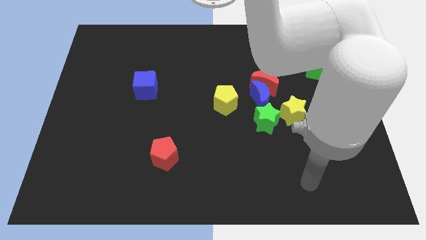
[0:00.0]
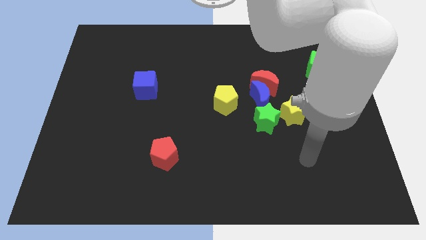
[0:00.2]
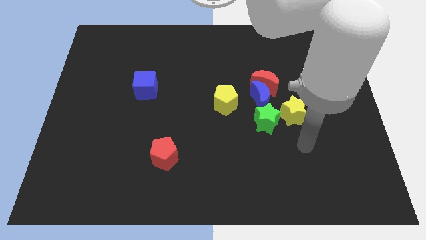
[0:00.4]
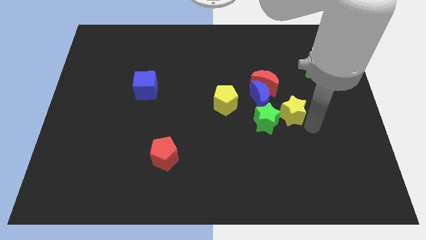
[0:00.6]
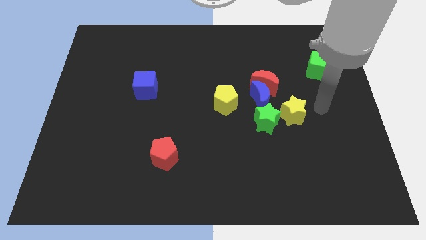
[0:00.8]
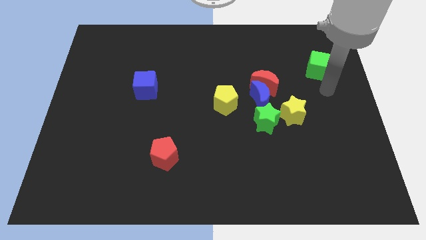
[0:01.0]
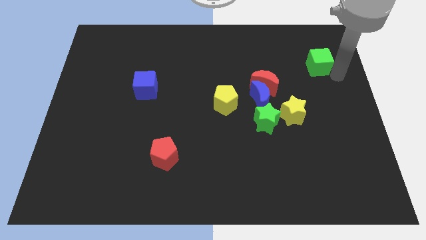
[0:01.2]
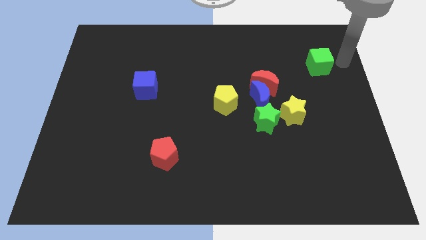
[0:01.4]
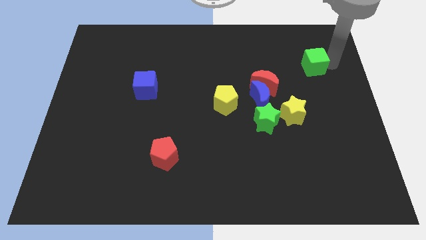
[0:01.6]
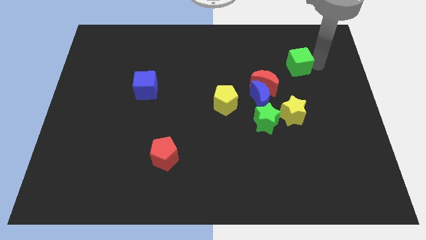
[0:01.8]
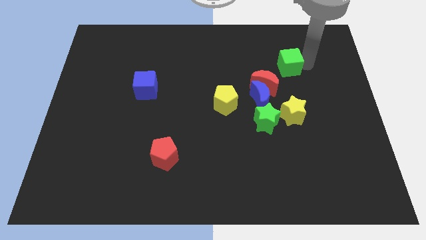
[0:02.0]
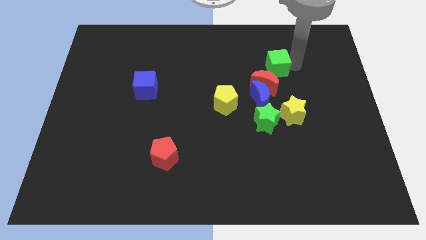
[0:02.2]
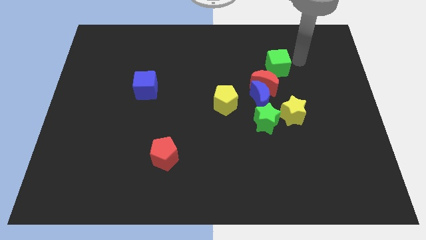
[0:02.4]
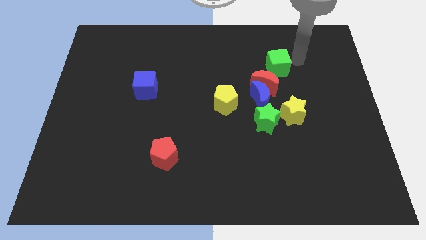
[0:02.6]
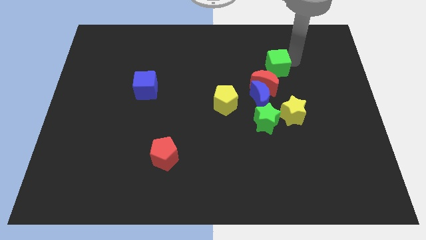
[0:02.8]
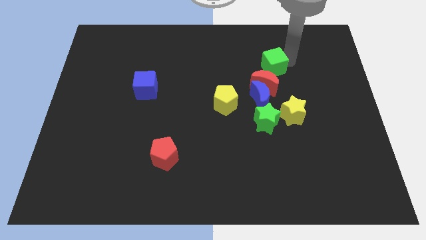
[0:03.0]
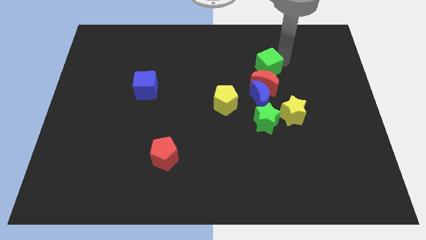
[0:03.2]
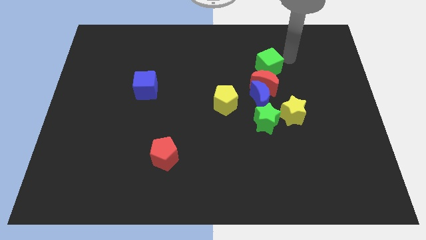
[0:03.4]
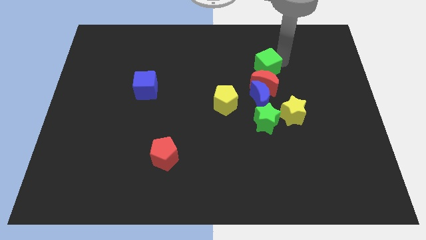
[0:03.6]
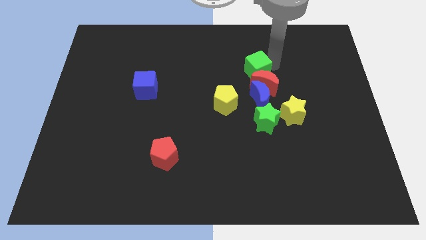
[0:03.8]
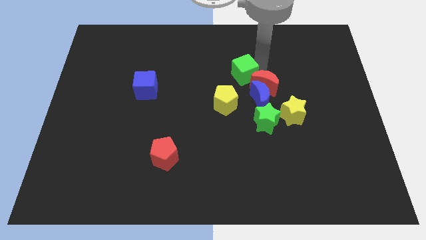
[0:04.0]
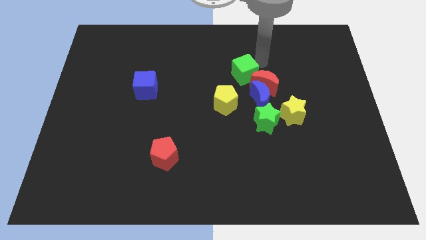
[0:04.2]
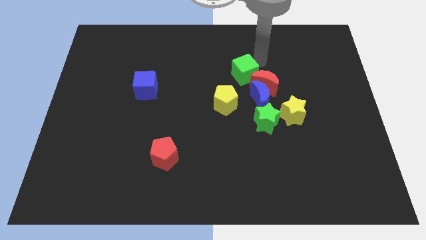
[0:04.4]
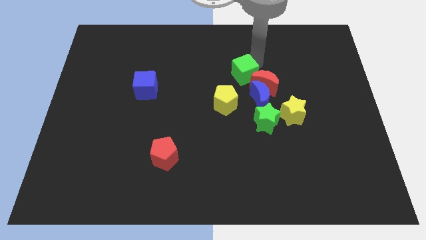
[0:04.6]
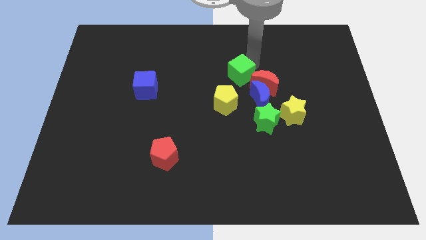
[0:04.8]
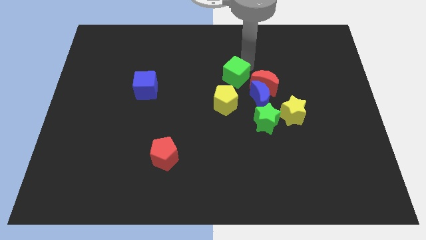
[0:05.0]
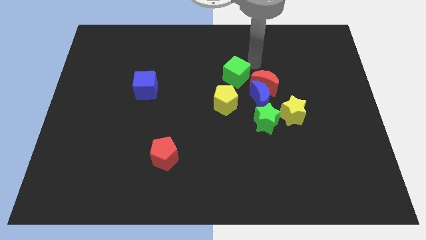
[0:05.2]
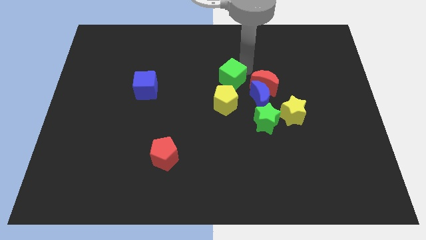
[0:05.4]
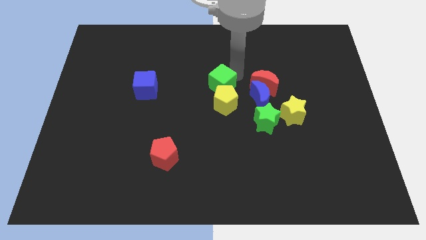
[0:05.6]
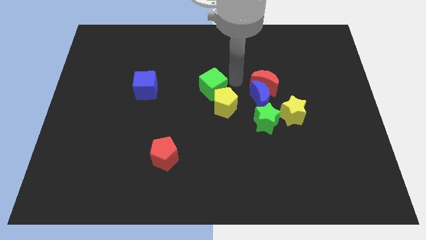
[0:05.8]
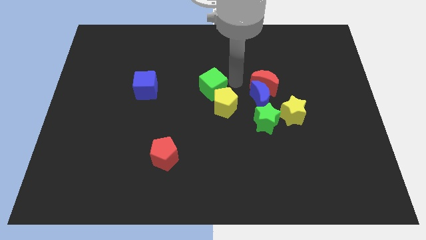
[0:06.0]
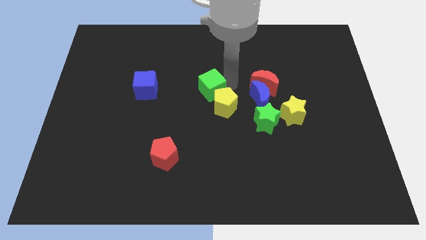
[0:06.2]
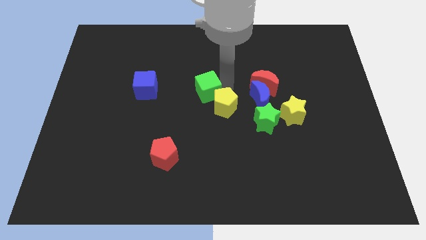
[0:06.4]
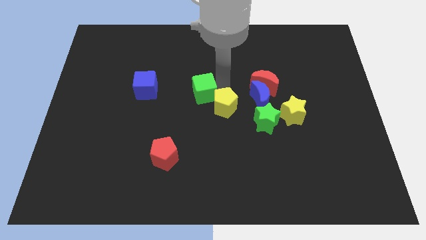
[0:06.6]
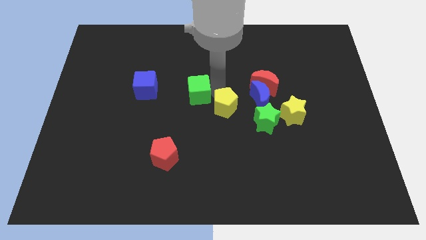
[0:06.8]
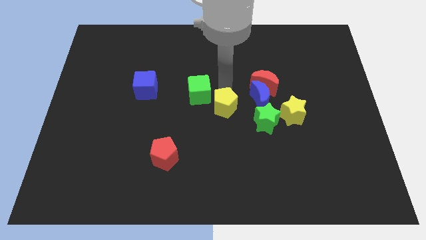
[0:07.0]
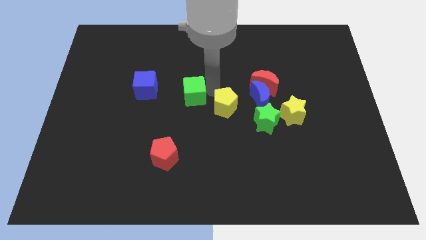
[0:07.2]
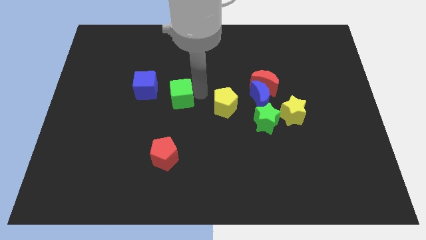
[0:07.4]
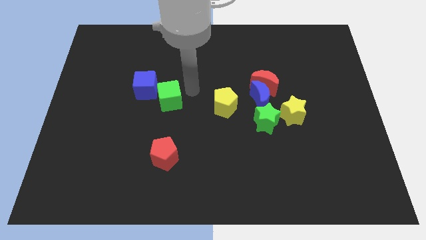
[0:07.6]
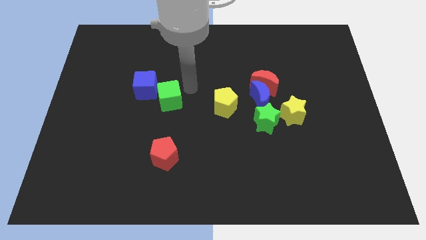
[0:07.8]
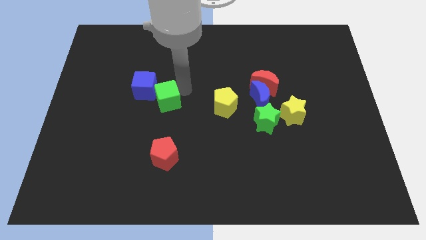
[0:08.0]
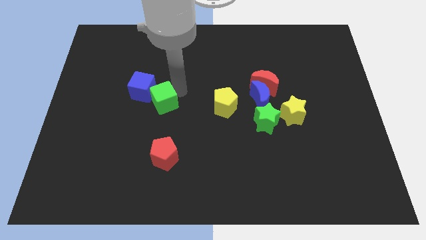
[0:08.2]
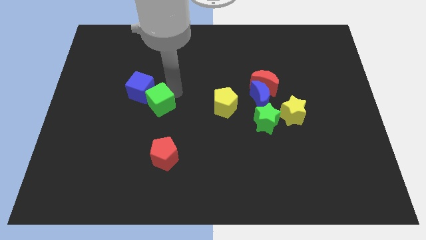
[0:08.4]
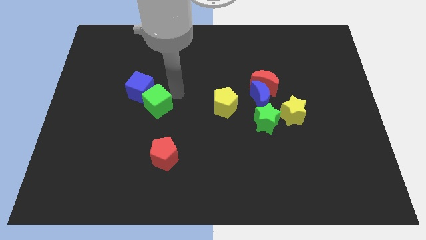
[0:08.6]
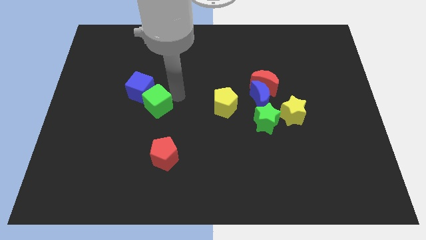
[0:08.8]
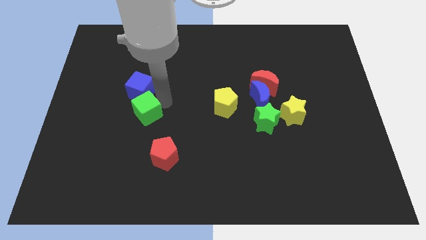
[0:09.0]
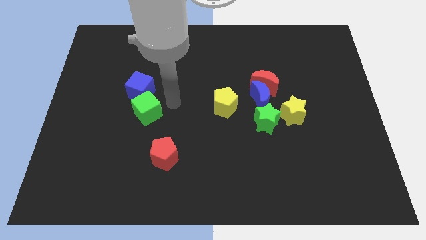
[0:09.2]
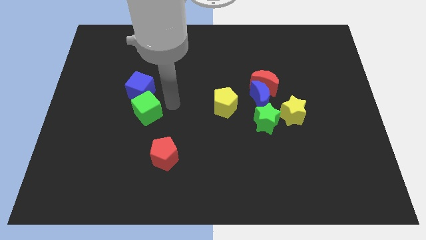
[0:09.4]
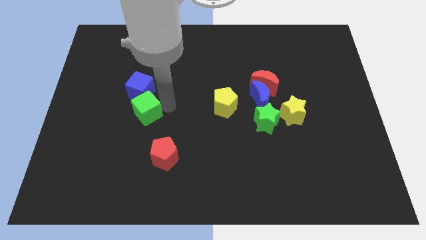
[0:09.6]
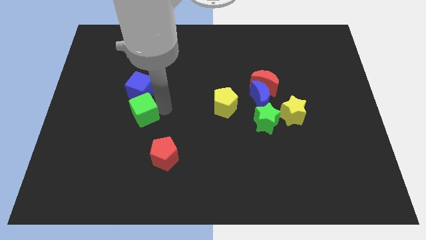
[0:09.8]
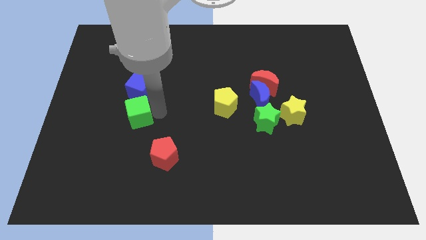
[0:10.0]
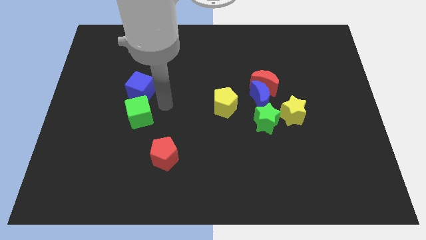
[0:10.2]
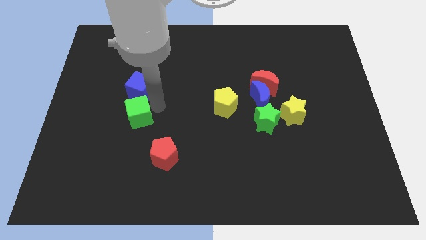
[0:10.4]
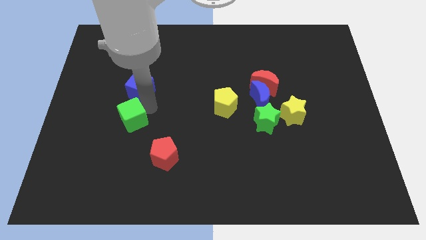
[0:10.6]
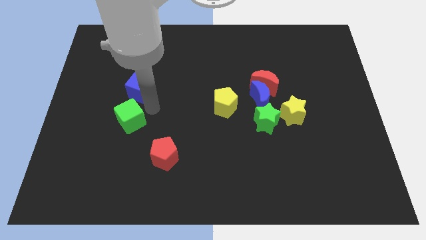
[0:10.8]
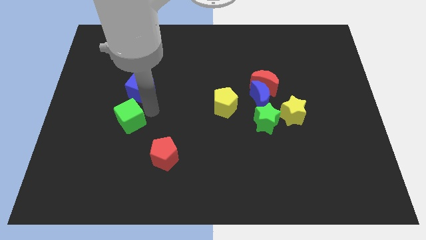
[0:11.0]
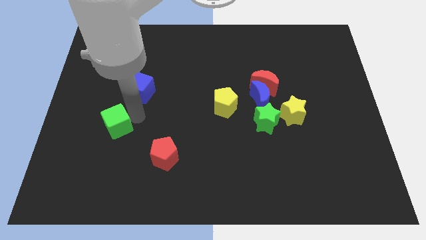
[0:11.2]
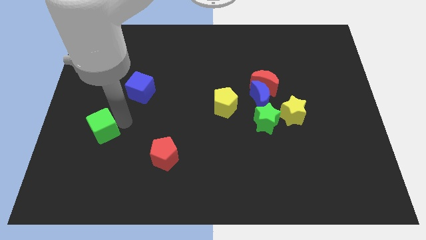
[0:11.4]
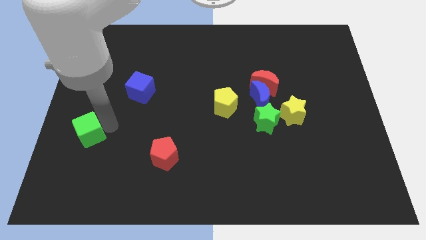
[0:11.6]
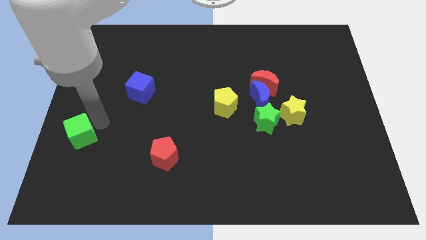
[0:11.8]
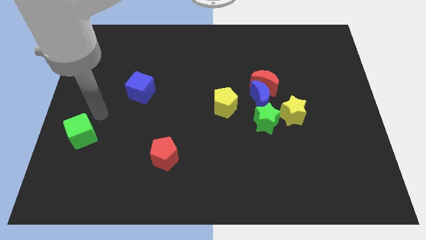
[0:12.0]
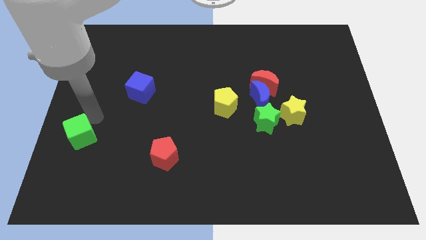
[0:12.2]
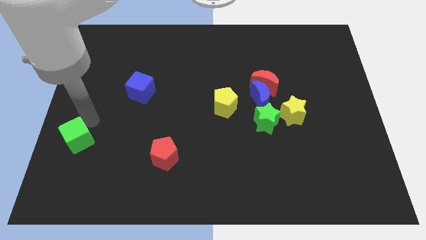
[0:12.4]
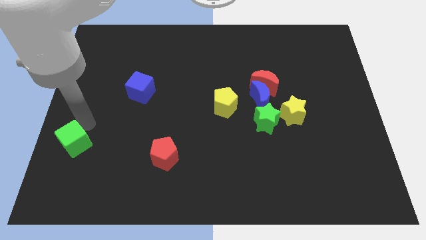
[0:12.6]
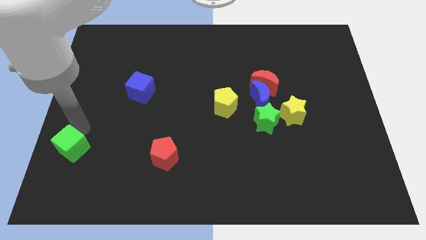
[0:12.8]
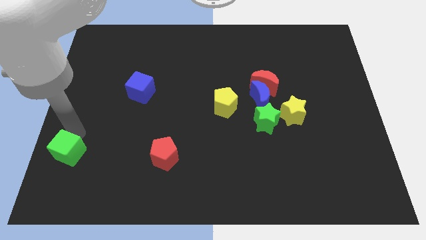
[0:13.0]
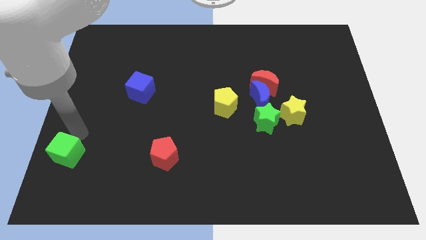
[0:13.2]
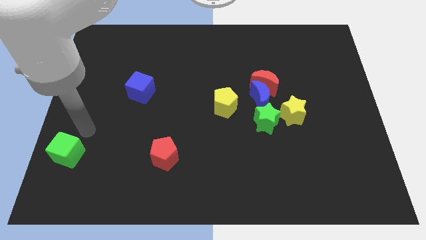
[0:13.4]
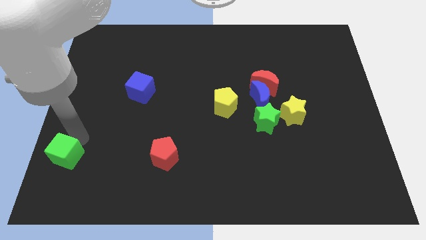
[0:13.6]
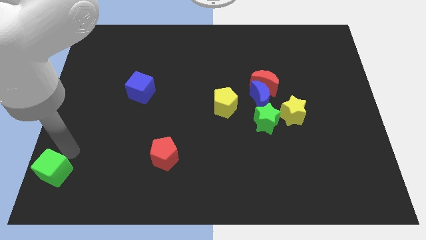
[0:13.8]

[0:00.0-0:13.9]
move the green cube to the bottom left corner

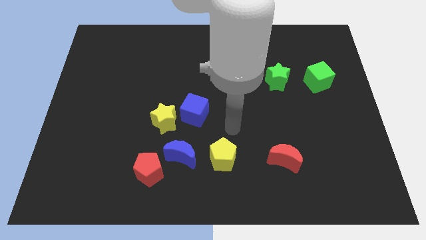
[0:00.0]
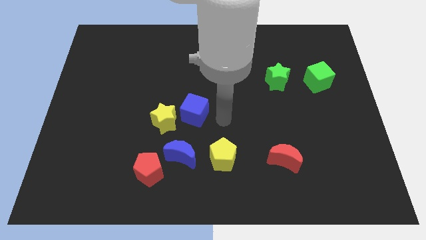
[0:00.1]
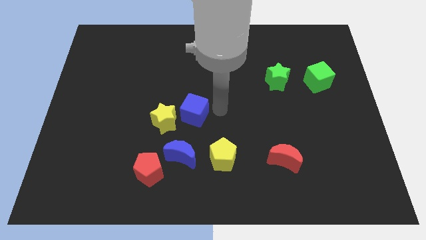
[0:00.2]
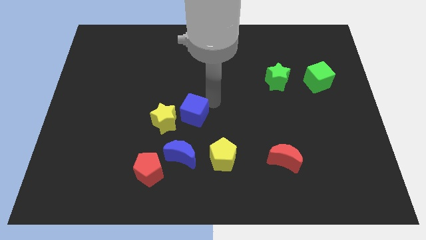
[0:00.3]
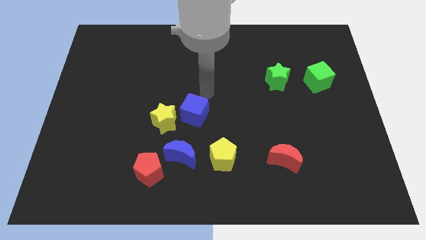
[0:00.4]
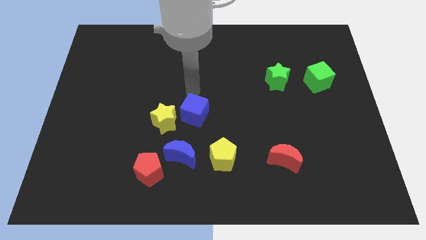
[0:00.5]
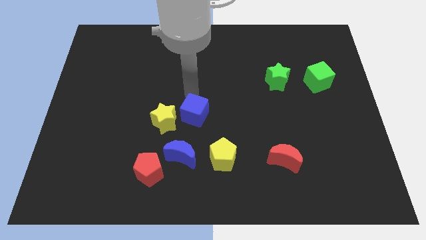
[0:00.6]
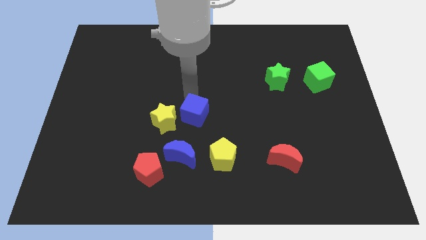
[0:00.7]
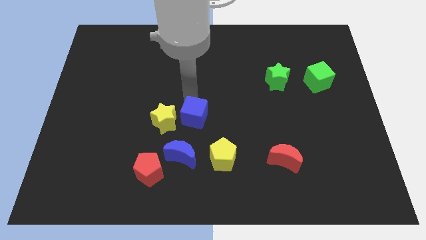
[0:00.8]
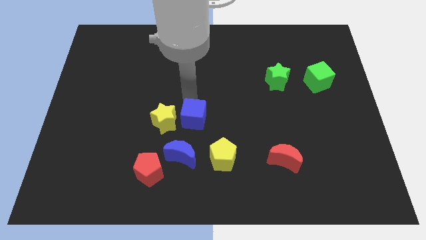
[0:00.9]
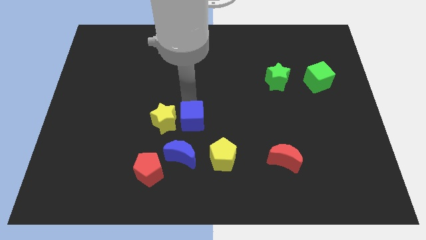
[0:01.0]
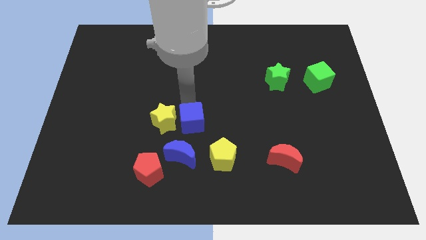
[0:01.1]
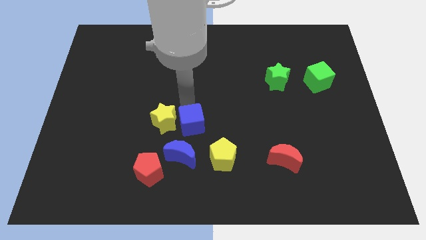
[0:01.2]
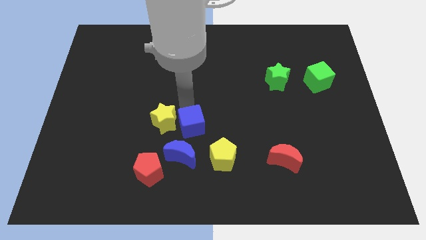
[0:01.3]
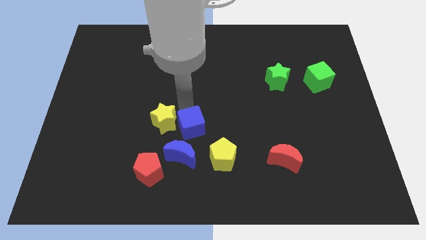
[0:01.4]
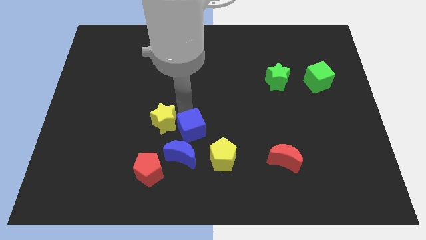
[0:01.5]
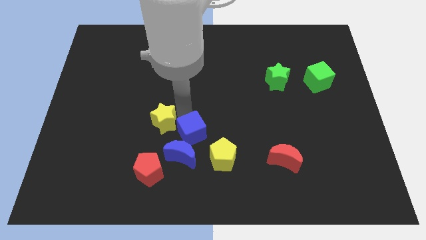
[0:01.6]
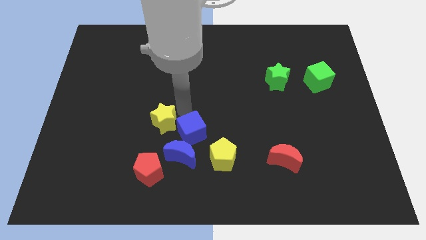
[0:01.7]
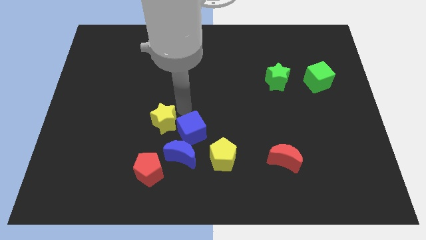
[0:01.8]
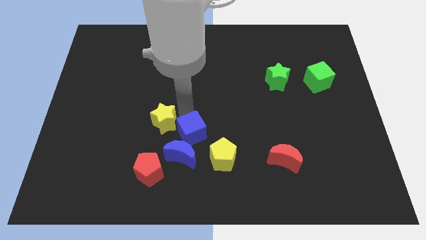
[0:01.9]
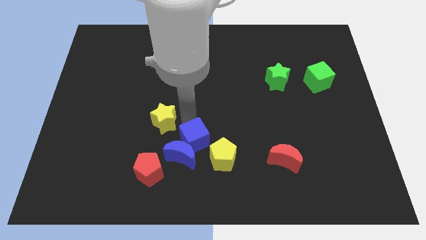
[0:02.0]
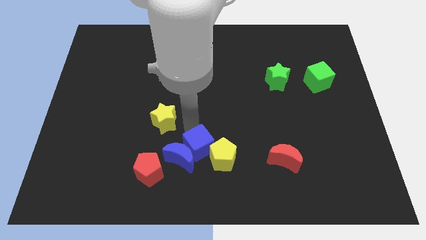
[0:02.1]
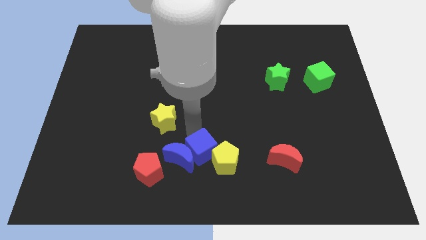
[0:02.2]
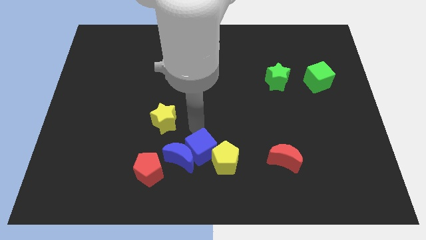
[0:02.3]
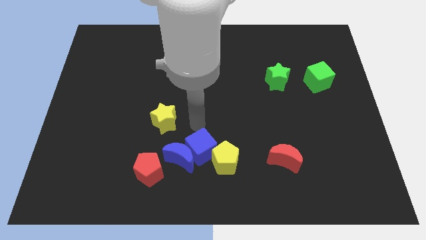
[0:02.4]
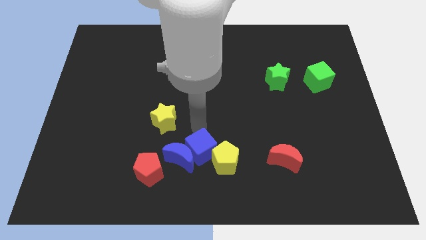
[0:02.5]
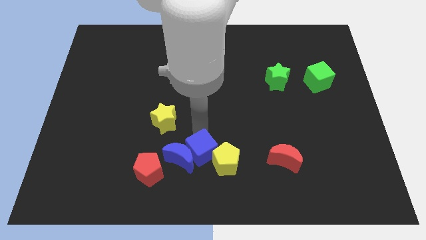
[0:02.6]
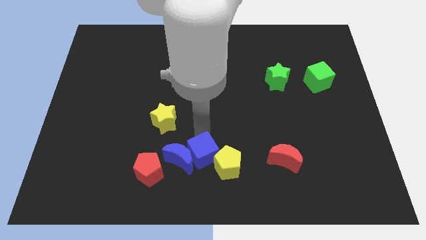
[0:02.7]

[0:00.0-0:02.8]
move the blue cube to the bottom side
